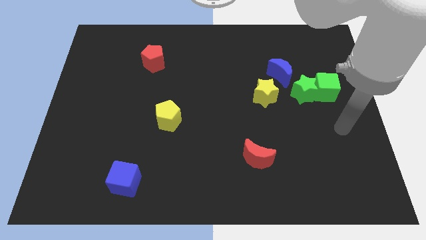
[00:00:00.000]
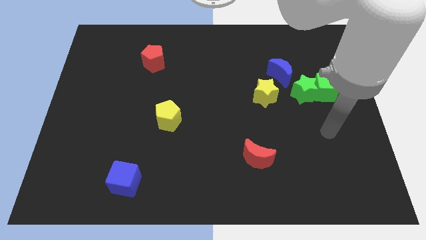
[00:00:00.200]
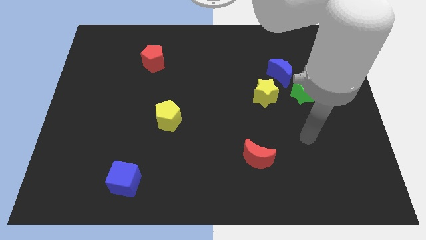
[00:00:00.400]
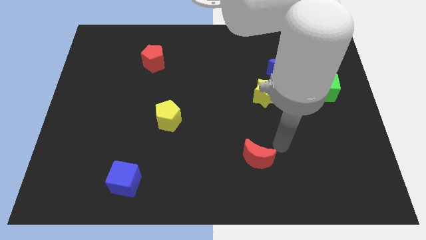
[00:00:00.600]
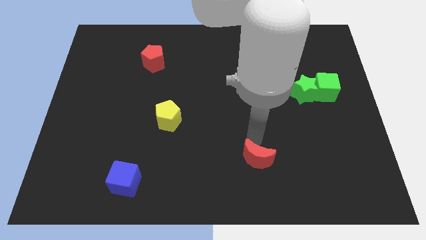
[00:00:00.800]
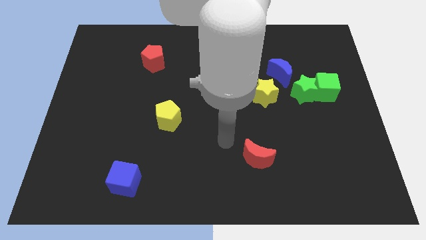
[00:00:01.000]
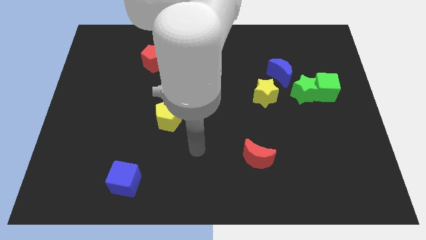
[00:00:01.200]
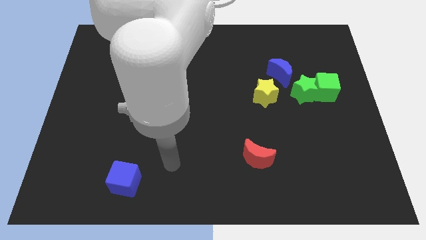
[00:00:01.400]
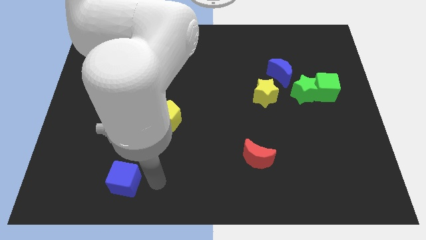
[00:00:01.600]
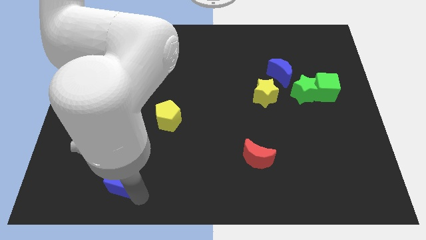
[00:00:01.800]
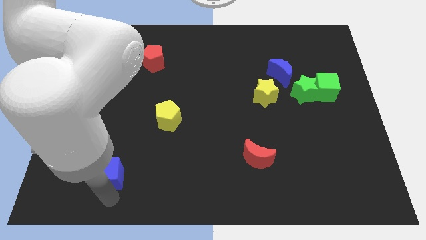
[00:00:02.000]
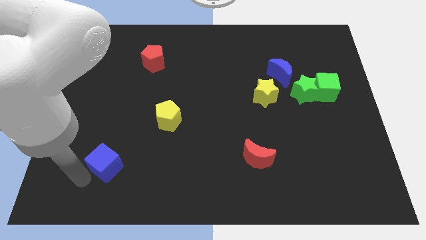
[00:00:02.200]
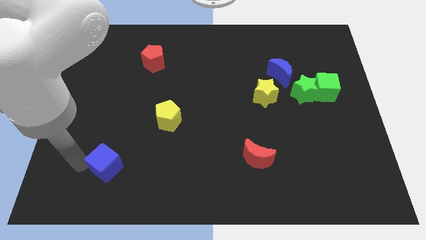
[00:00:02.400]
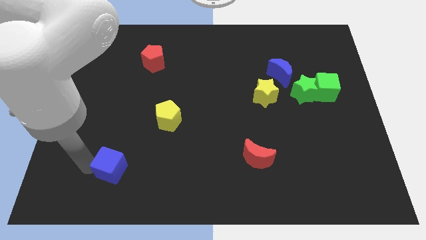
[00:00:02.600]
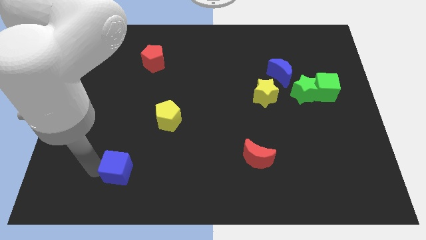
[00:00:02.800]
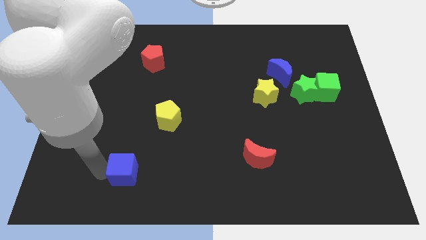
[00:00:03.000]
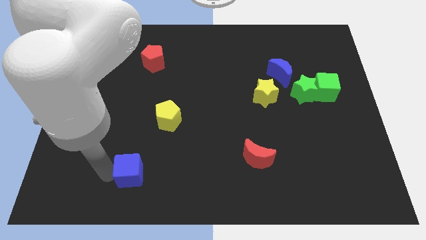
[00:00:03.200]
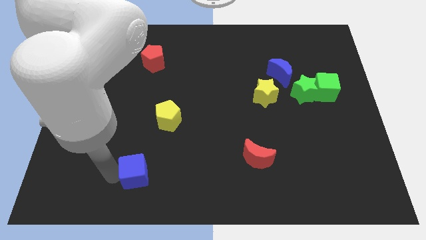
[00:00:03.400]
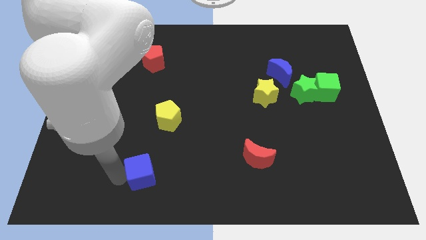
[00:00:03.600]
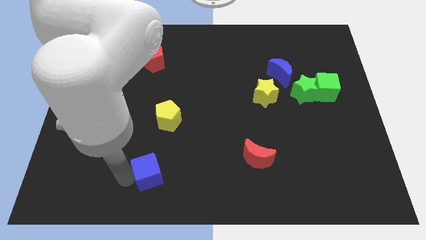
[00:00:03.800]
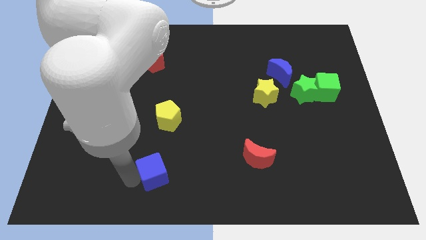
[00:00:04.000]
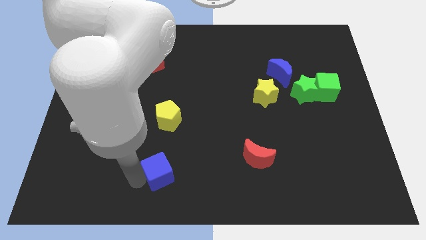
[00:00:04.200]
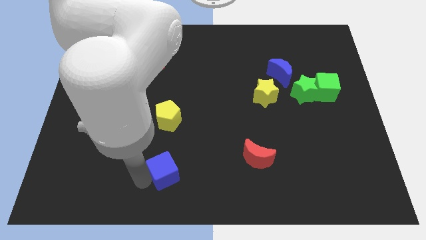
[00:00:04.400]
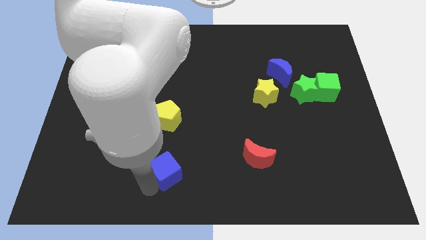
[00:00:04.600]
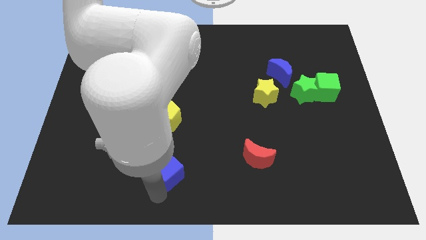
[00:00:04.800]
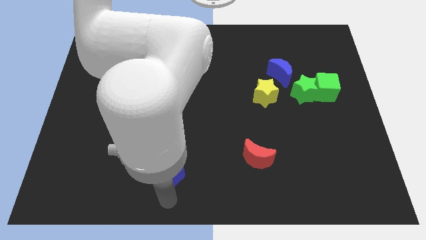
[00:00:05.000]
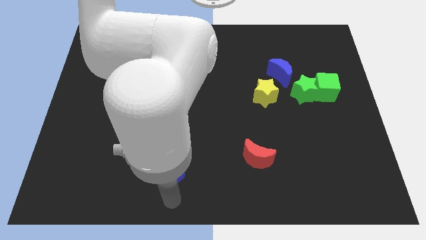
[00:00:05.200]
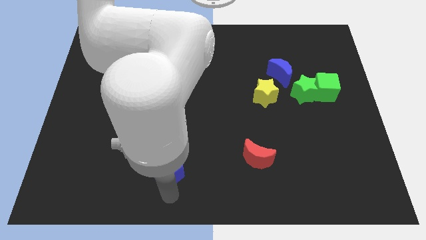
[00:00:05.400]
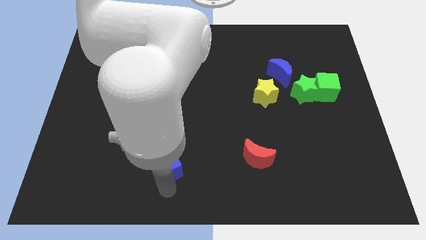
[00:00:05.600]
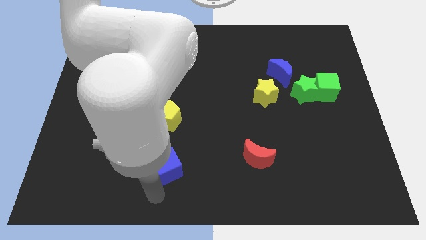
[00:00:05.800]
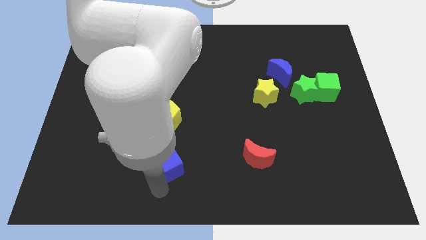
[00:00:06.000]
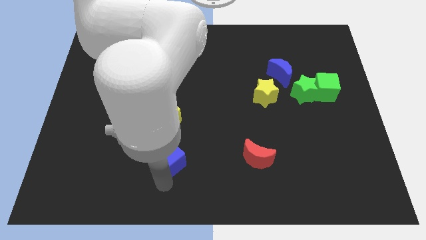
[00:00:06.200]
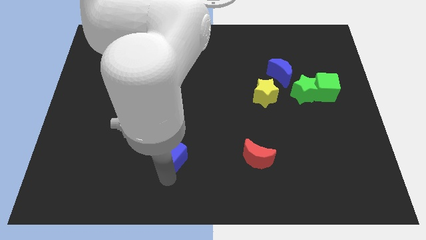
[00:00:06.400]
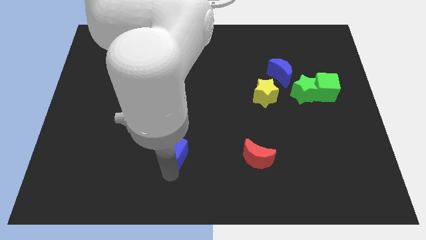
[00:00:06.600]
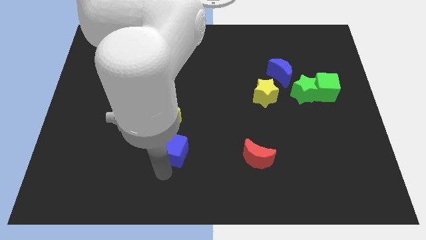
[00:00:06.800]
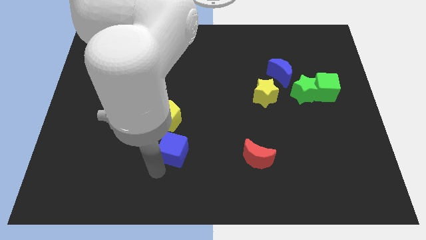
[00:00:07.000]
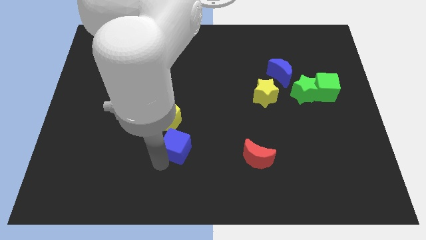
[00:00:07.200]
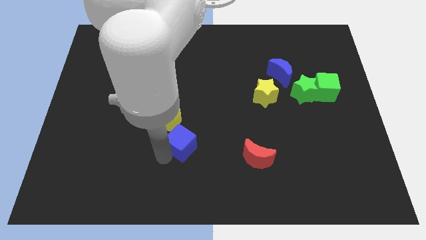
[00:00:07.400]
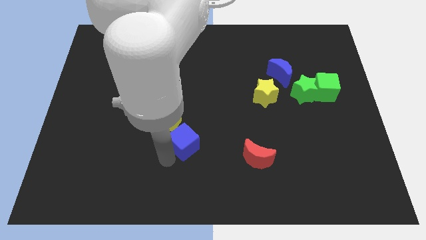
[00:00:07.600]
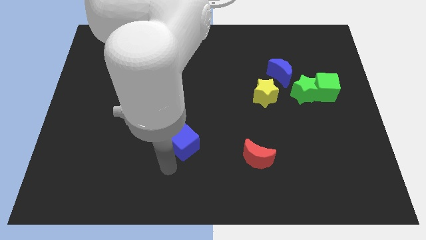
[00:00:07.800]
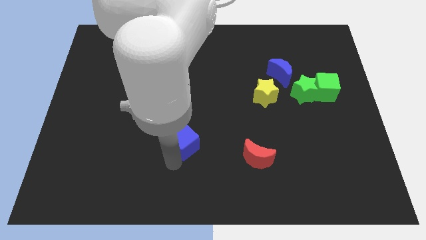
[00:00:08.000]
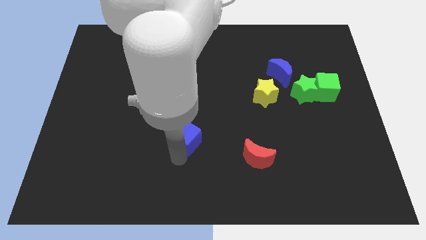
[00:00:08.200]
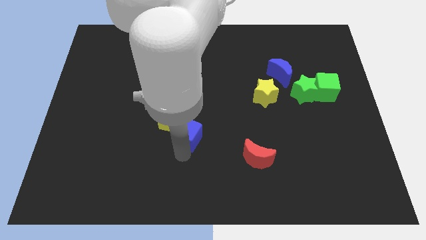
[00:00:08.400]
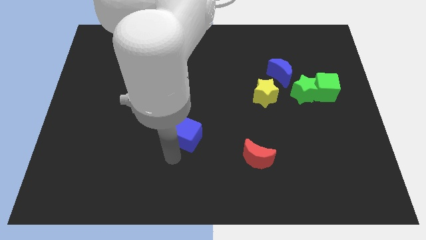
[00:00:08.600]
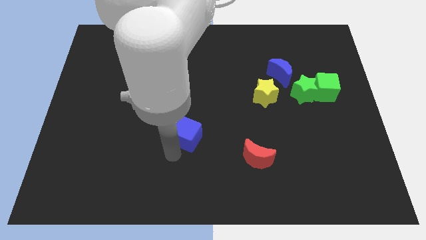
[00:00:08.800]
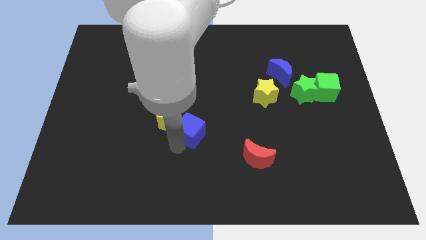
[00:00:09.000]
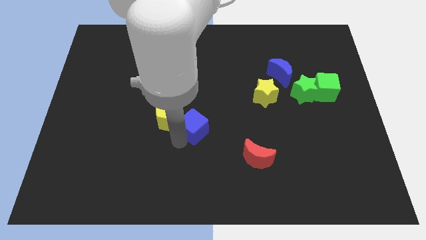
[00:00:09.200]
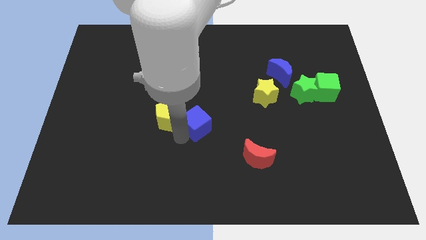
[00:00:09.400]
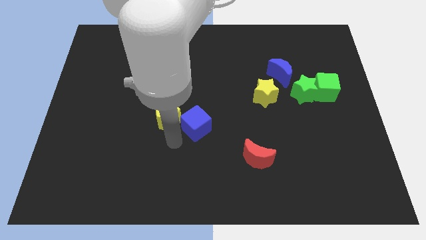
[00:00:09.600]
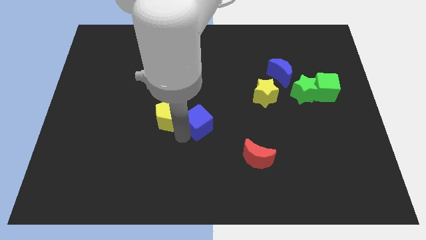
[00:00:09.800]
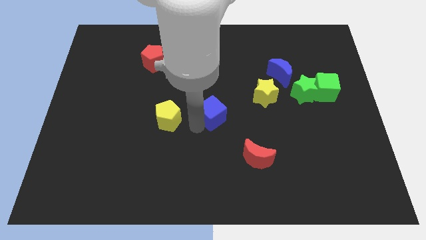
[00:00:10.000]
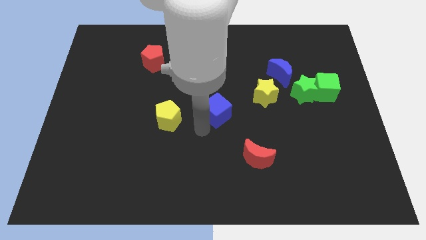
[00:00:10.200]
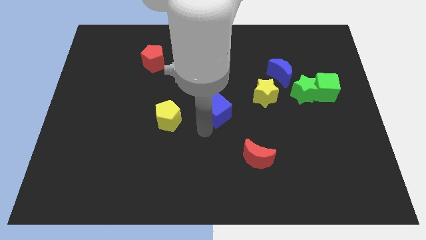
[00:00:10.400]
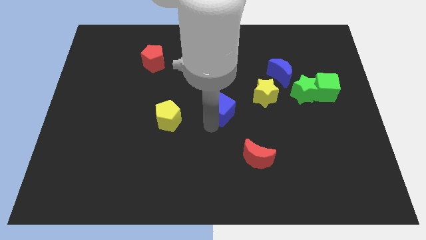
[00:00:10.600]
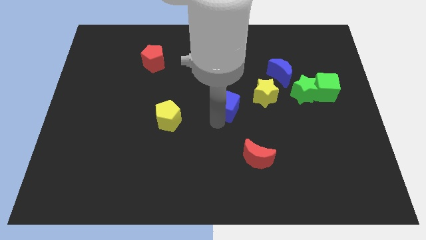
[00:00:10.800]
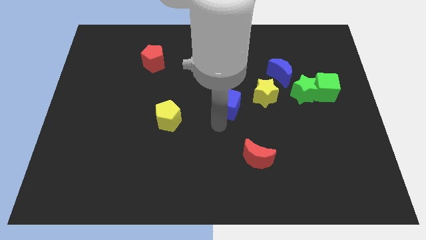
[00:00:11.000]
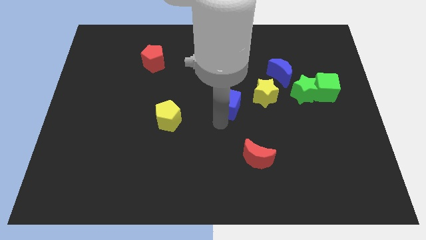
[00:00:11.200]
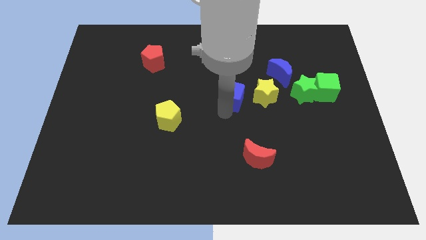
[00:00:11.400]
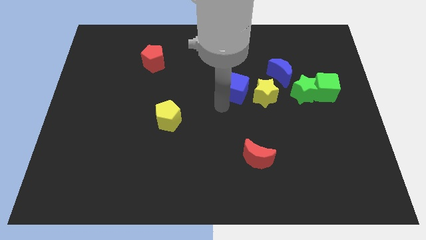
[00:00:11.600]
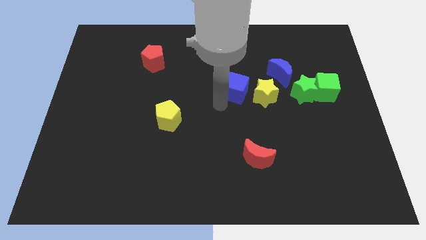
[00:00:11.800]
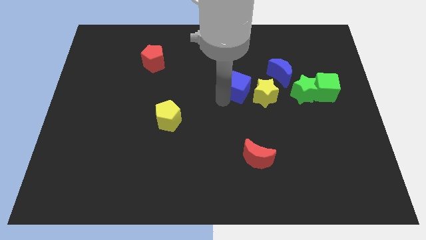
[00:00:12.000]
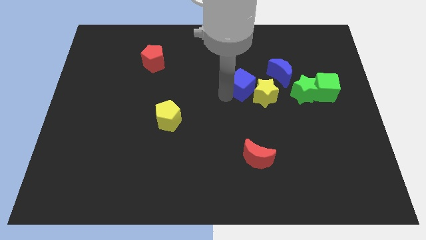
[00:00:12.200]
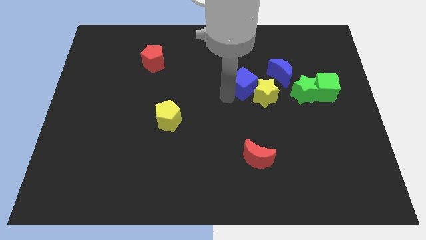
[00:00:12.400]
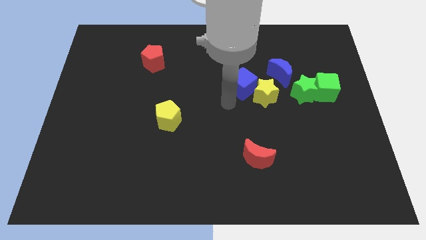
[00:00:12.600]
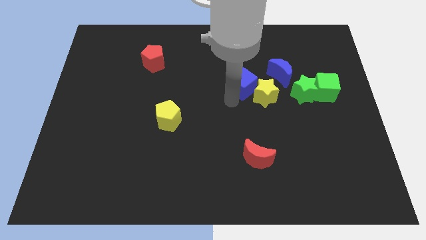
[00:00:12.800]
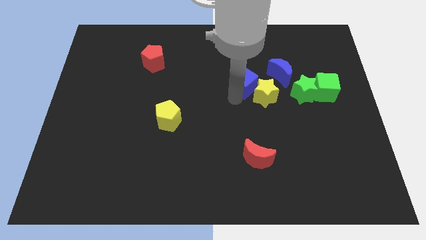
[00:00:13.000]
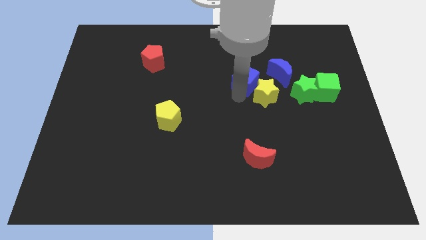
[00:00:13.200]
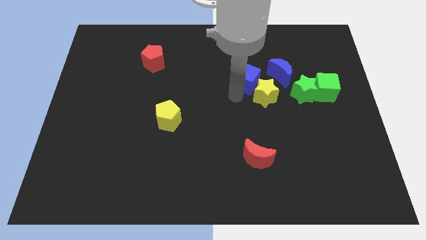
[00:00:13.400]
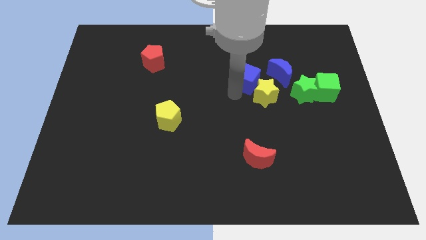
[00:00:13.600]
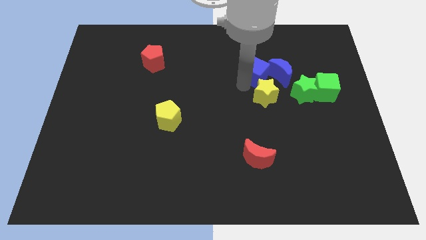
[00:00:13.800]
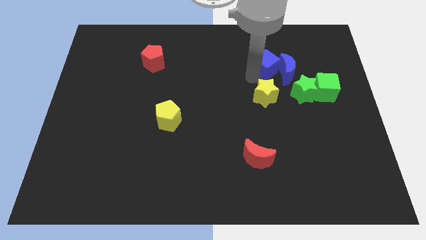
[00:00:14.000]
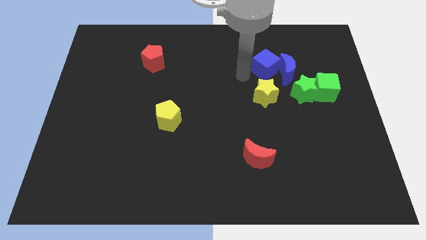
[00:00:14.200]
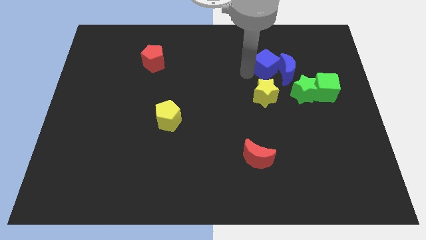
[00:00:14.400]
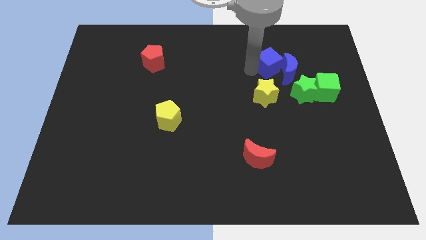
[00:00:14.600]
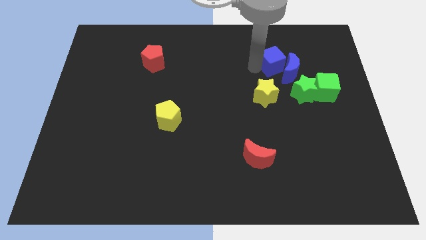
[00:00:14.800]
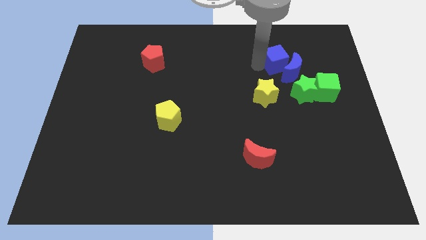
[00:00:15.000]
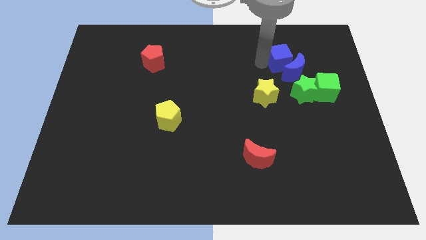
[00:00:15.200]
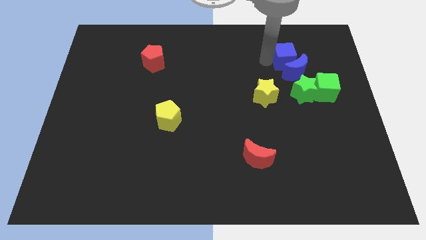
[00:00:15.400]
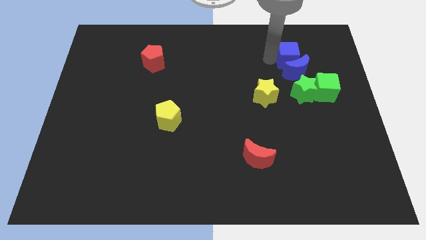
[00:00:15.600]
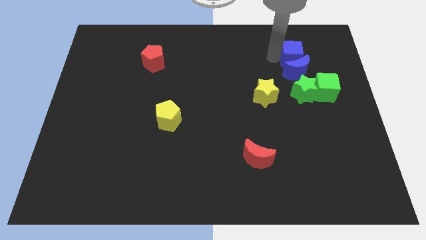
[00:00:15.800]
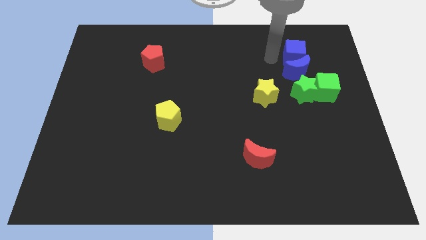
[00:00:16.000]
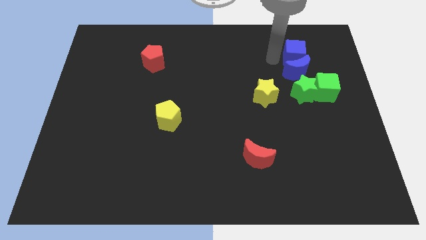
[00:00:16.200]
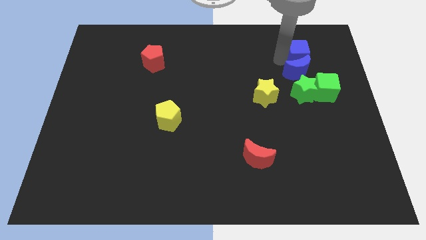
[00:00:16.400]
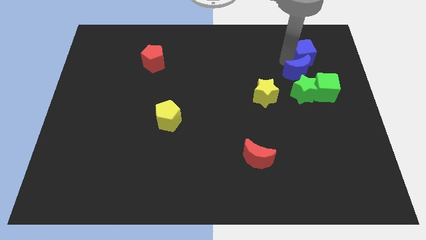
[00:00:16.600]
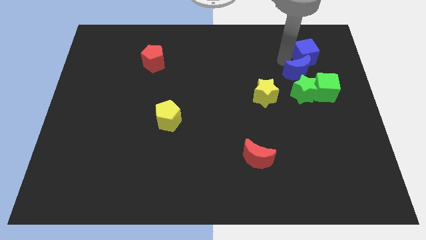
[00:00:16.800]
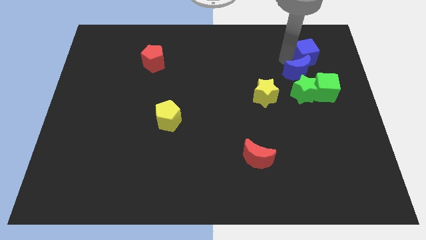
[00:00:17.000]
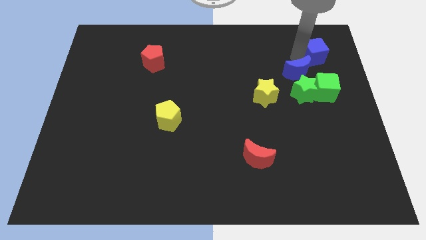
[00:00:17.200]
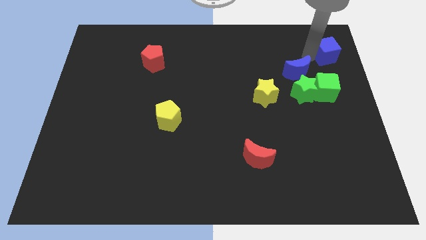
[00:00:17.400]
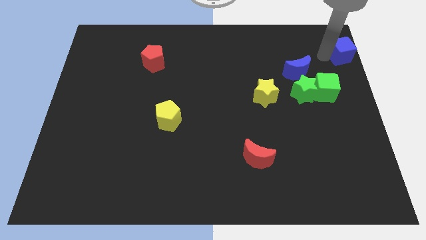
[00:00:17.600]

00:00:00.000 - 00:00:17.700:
put the blue cube to the top right
